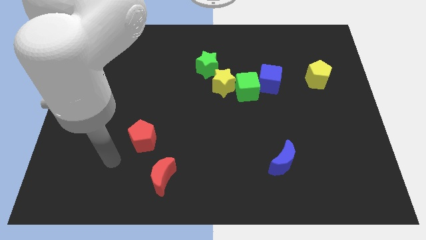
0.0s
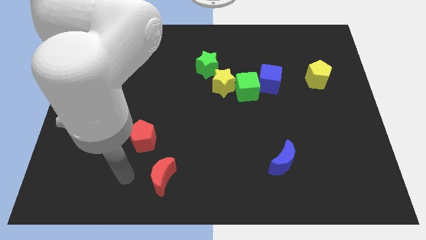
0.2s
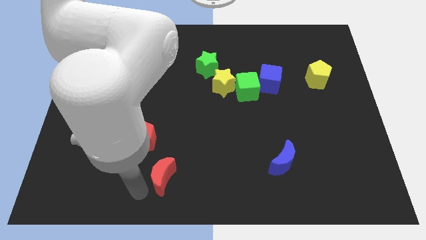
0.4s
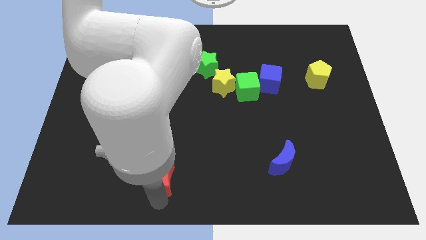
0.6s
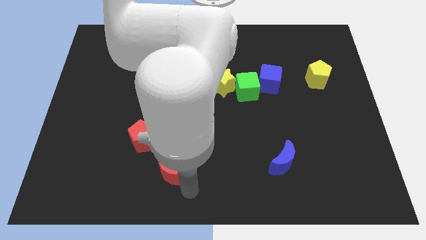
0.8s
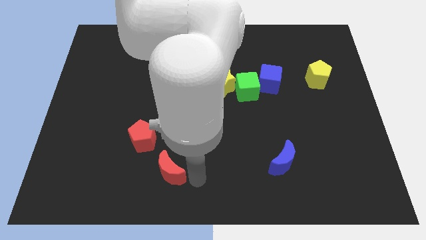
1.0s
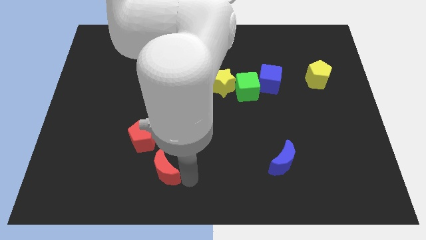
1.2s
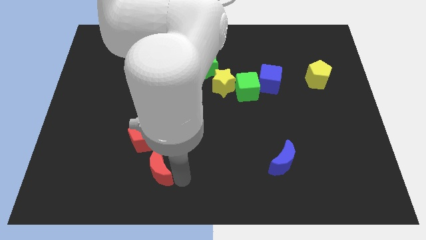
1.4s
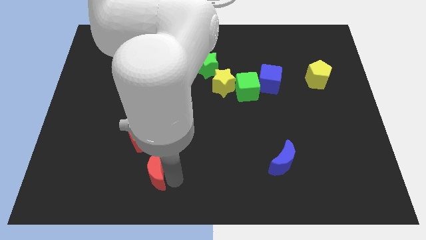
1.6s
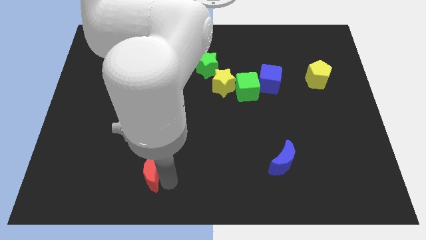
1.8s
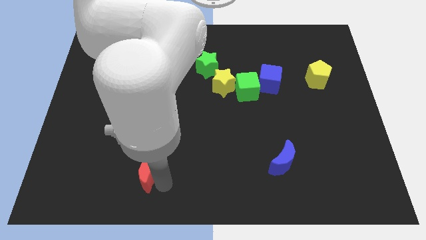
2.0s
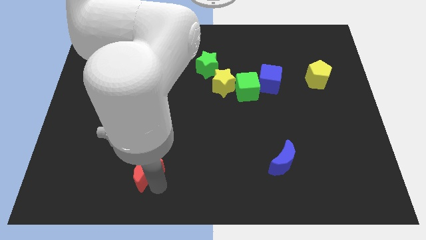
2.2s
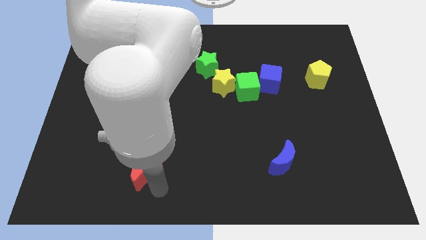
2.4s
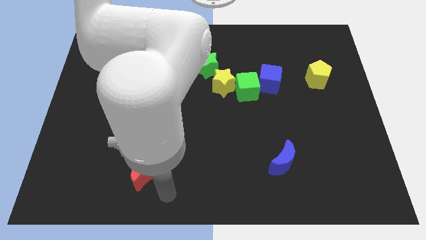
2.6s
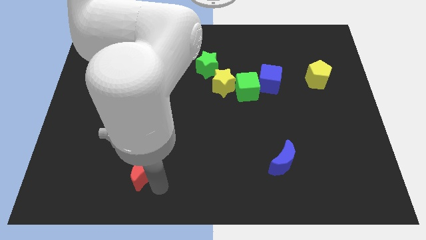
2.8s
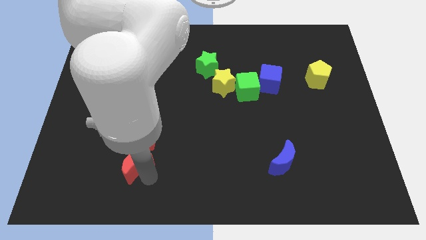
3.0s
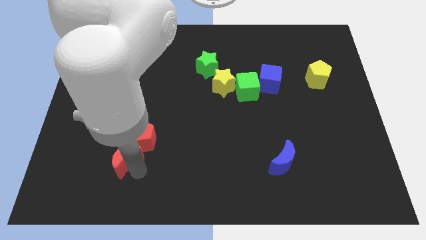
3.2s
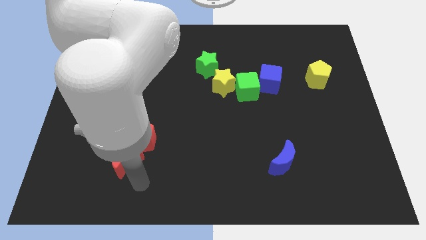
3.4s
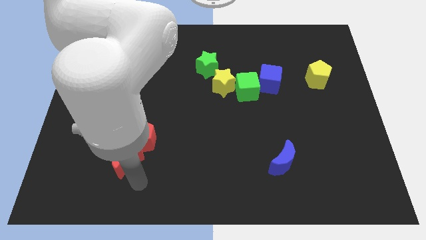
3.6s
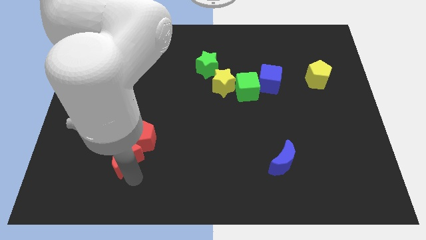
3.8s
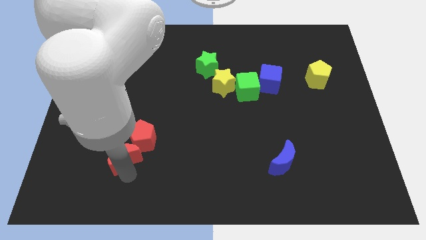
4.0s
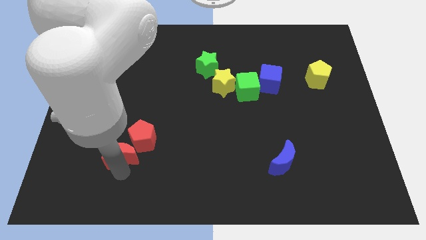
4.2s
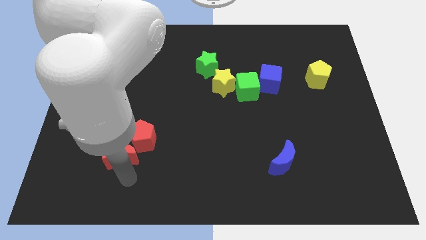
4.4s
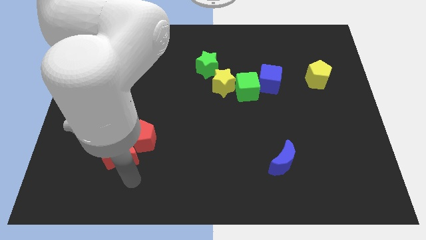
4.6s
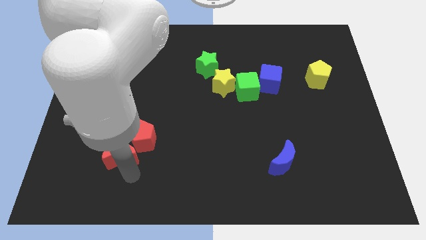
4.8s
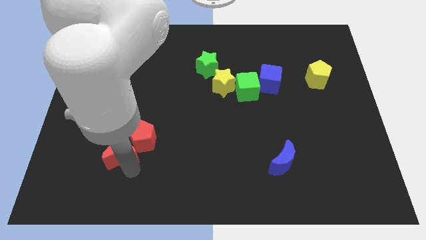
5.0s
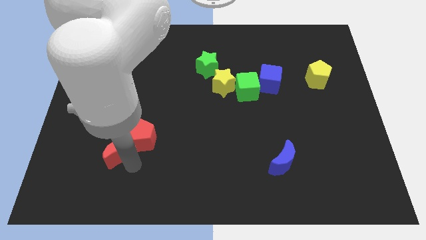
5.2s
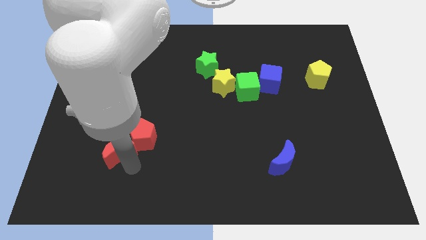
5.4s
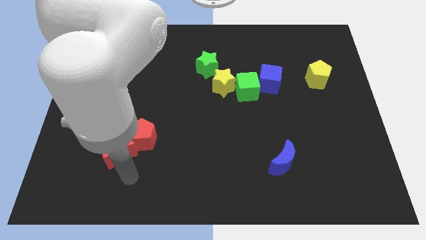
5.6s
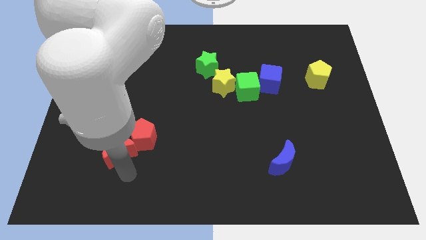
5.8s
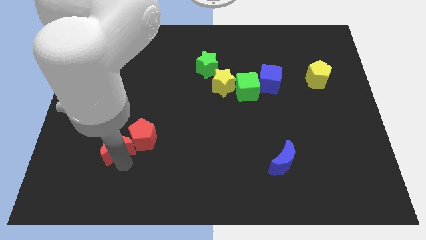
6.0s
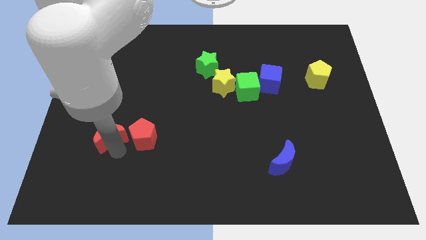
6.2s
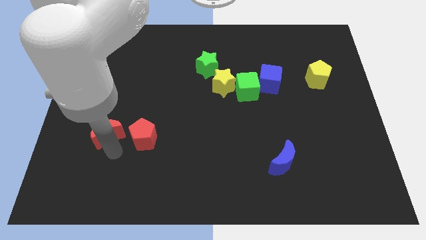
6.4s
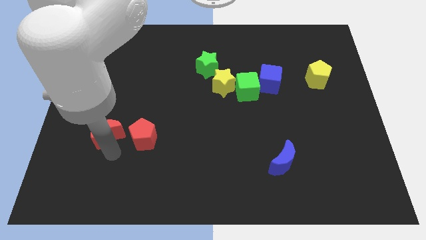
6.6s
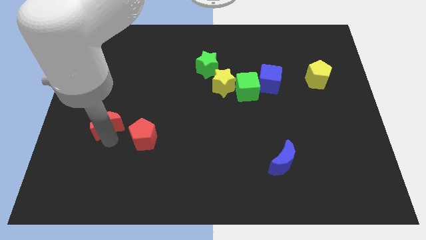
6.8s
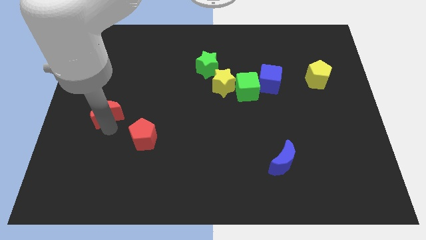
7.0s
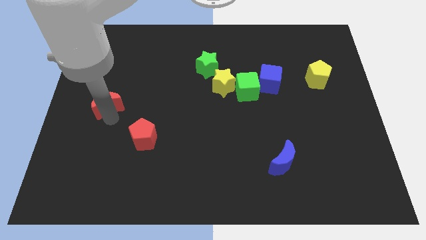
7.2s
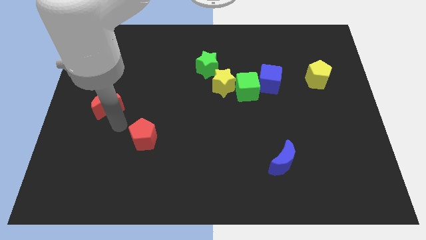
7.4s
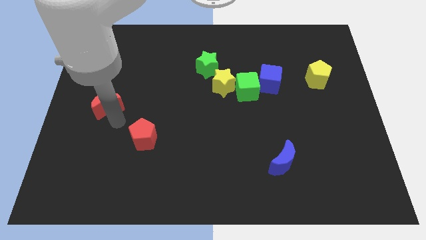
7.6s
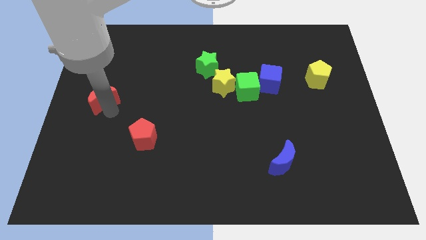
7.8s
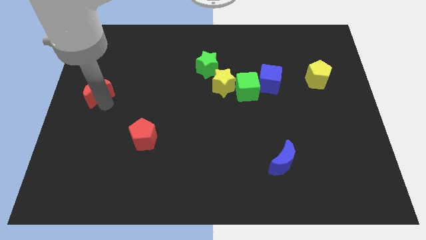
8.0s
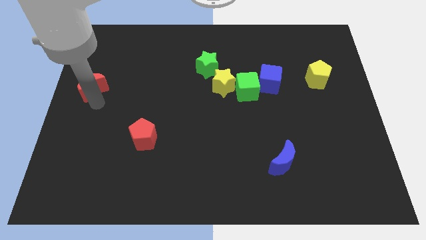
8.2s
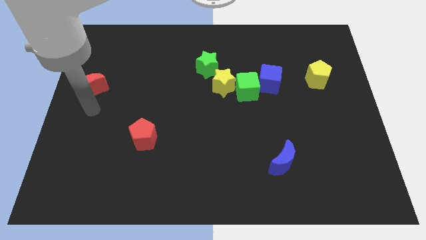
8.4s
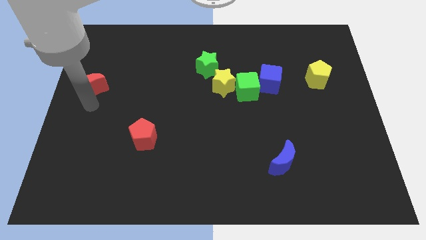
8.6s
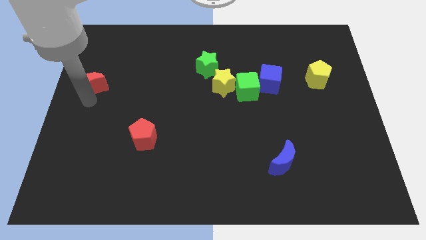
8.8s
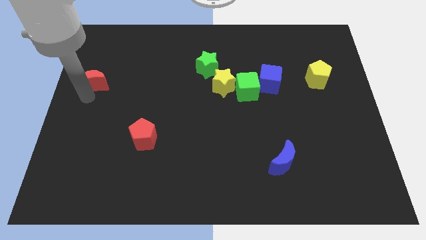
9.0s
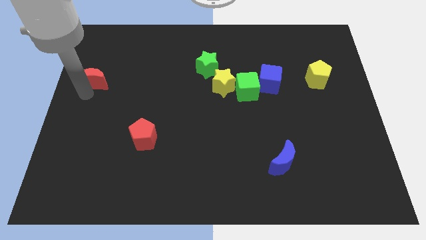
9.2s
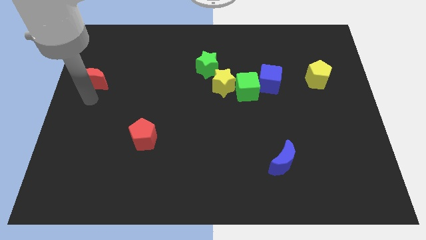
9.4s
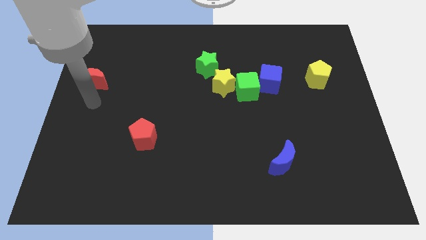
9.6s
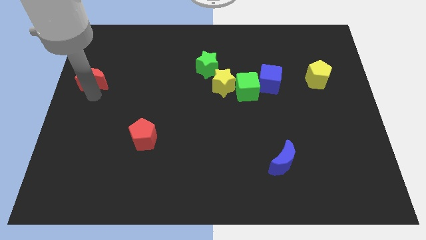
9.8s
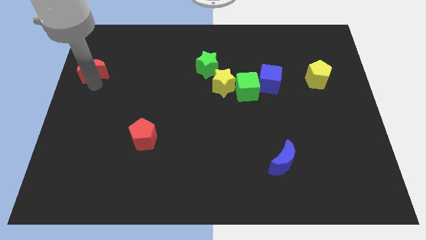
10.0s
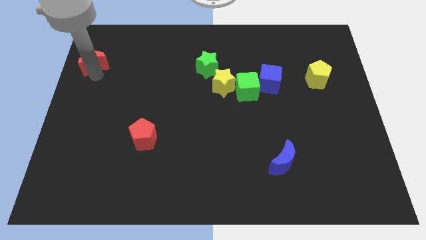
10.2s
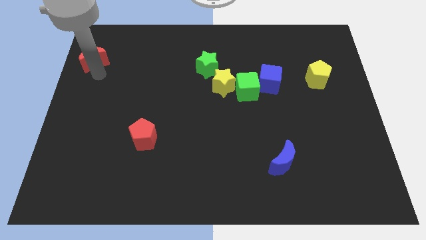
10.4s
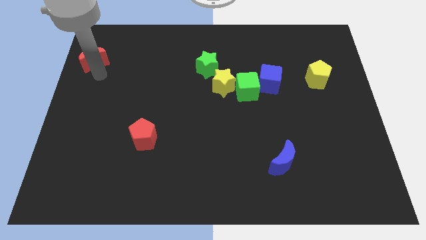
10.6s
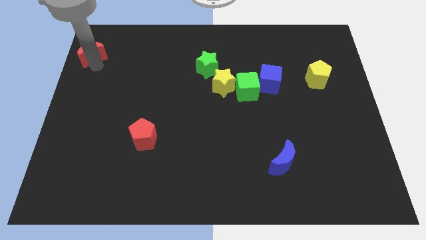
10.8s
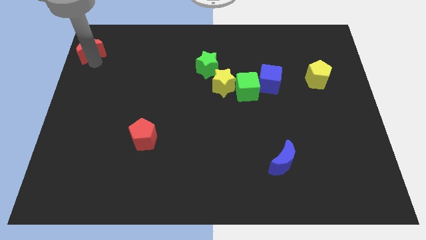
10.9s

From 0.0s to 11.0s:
slide the red moon to the top left

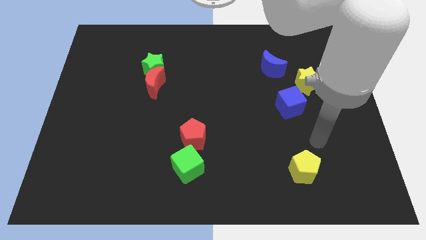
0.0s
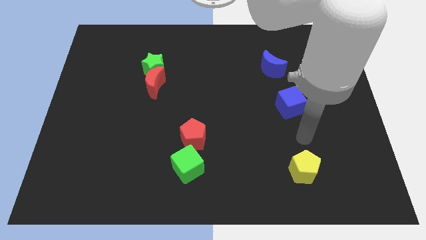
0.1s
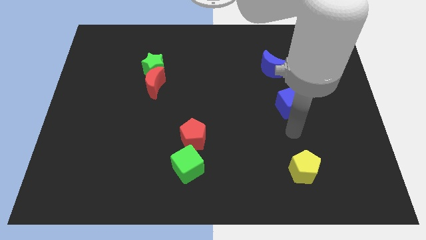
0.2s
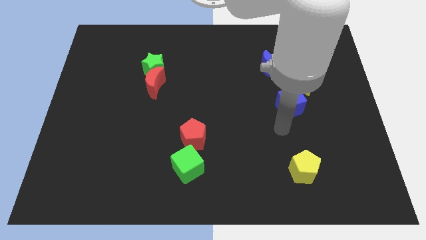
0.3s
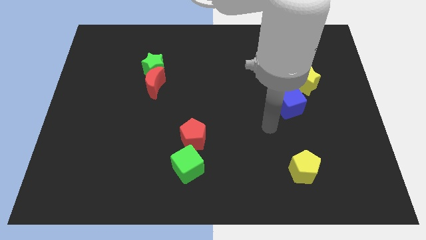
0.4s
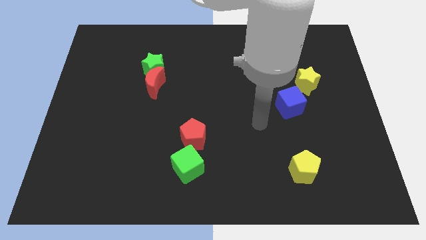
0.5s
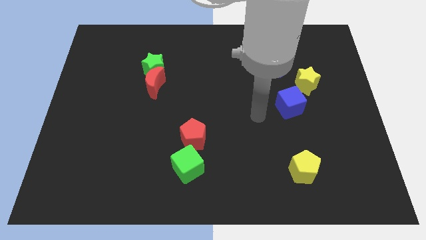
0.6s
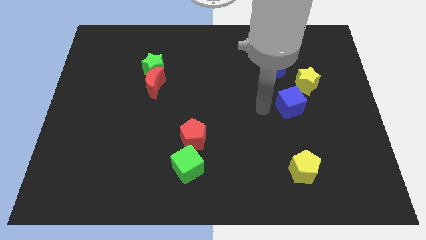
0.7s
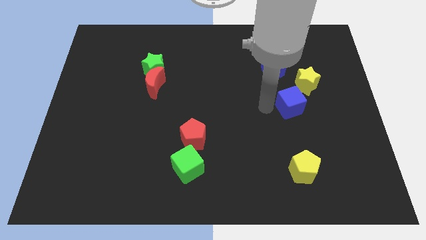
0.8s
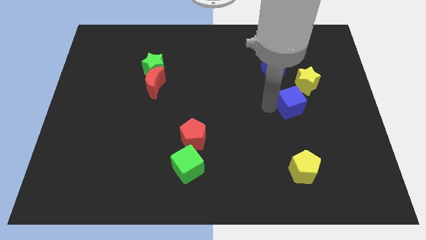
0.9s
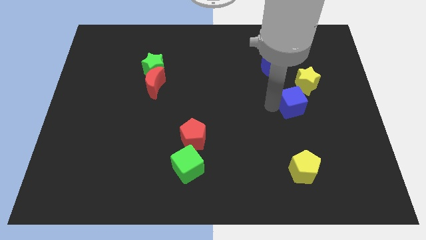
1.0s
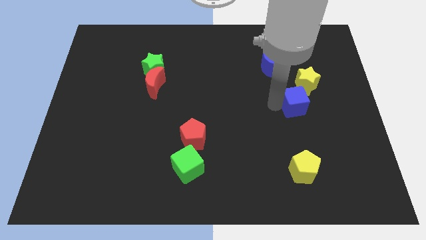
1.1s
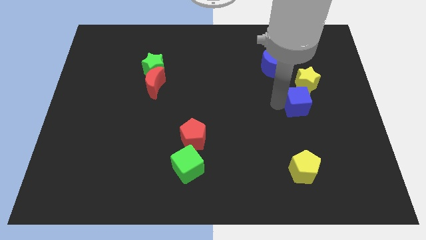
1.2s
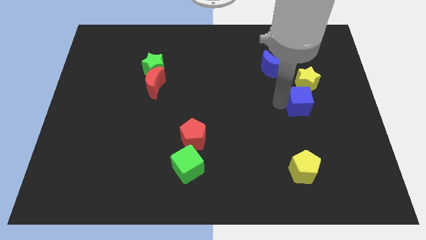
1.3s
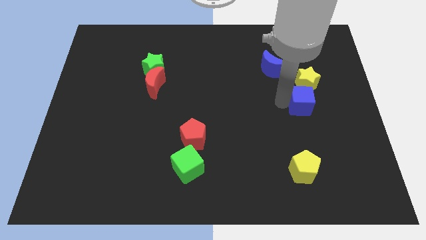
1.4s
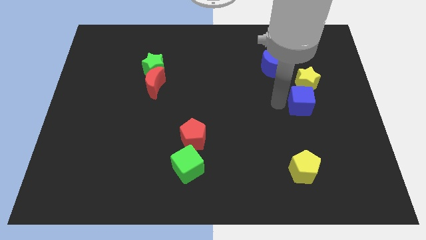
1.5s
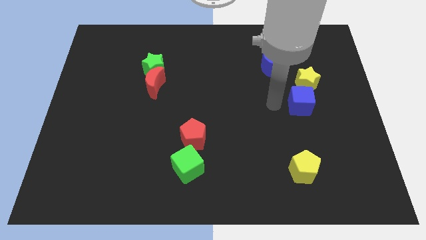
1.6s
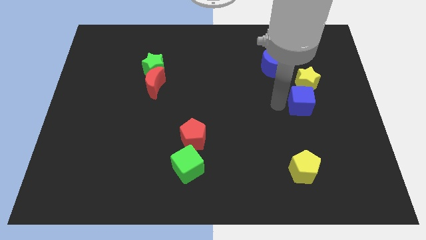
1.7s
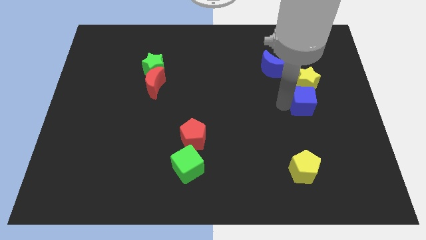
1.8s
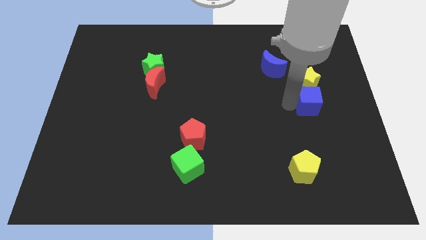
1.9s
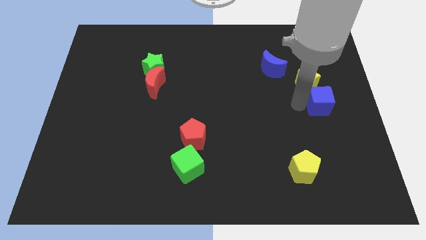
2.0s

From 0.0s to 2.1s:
put the blue cube to the center right
